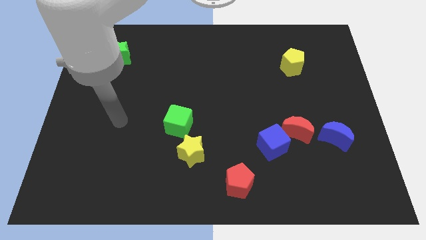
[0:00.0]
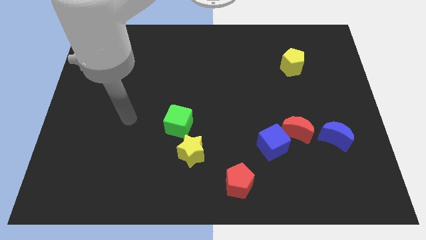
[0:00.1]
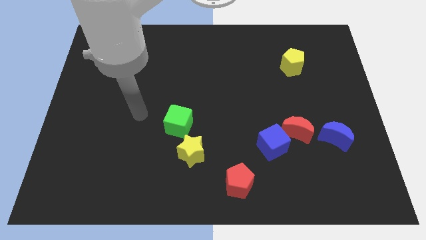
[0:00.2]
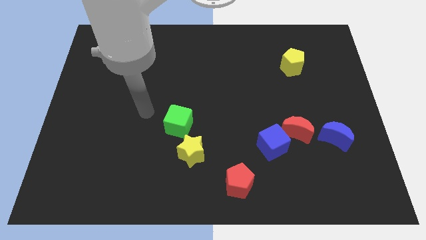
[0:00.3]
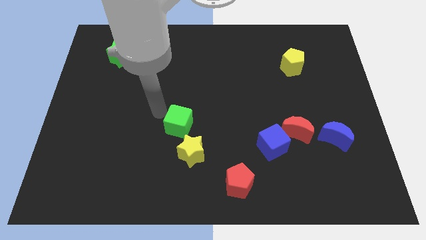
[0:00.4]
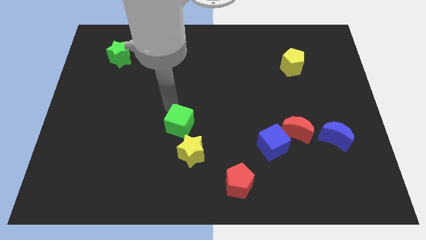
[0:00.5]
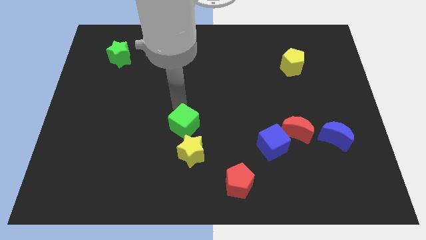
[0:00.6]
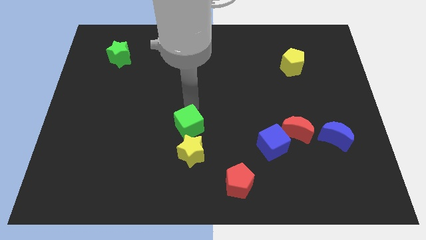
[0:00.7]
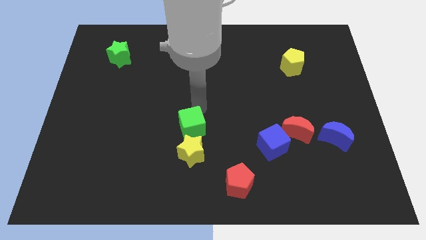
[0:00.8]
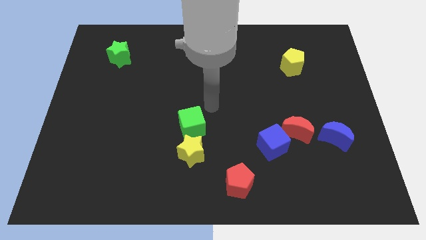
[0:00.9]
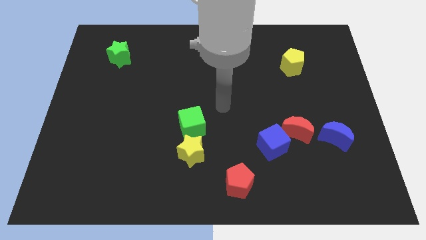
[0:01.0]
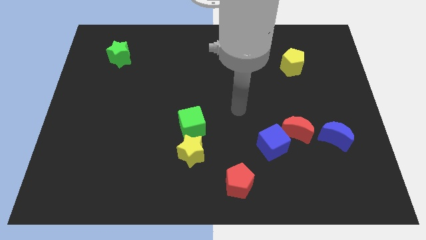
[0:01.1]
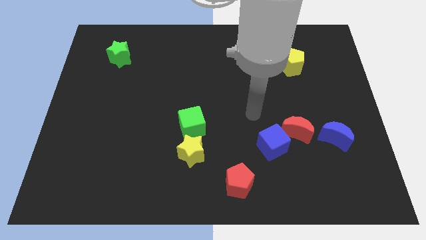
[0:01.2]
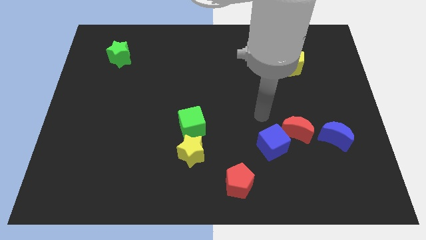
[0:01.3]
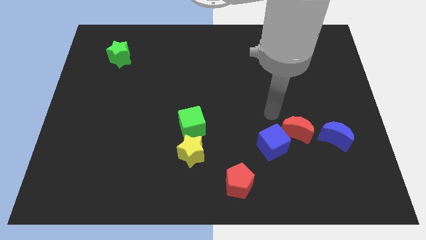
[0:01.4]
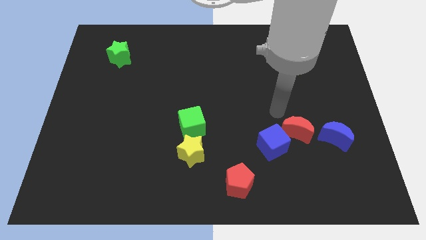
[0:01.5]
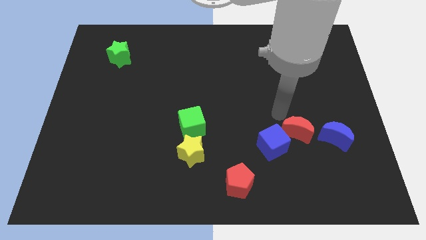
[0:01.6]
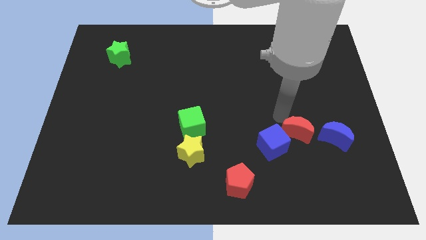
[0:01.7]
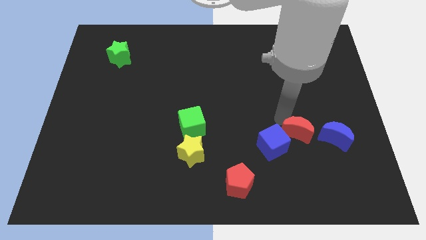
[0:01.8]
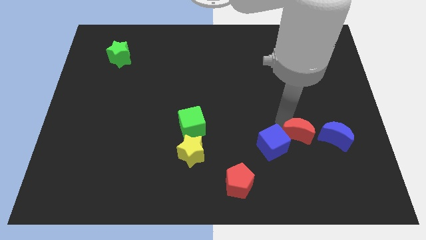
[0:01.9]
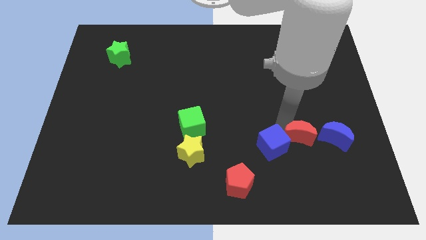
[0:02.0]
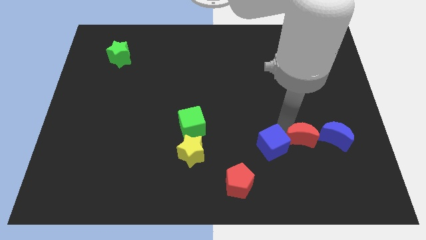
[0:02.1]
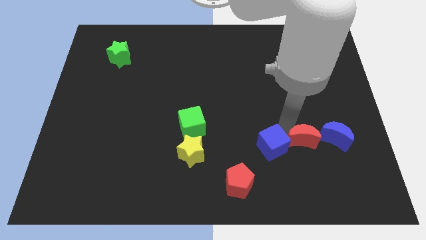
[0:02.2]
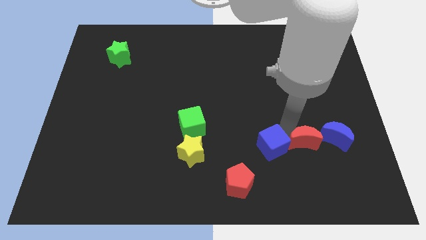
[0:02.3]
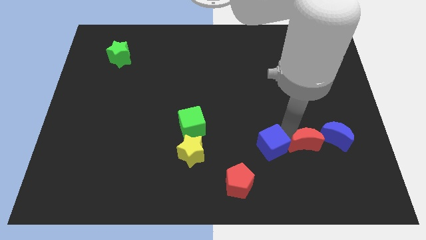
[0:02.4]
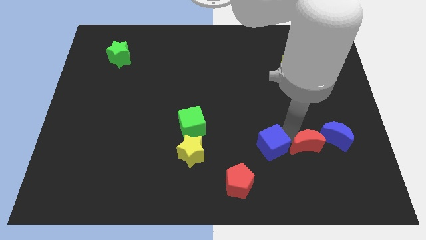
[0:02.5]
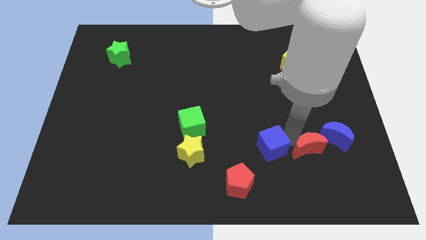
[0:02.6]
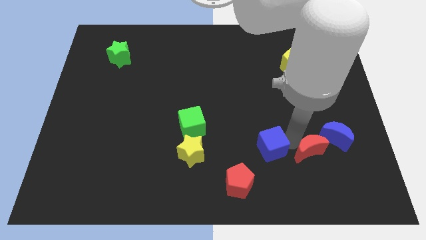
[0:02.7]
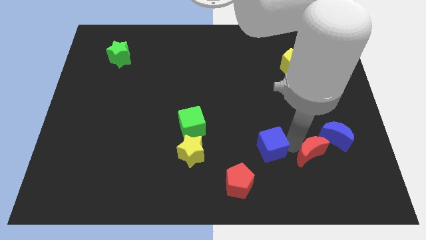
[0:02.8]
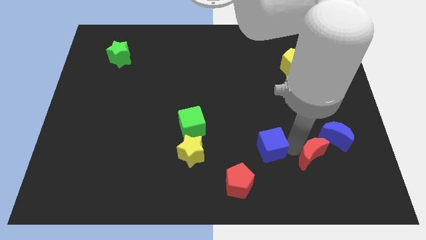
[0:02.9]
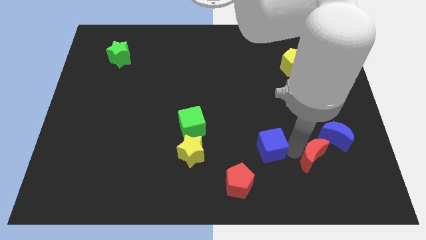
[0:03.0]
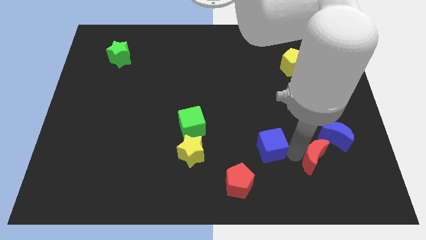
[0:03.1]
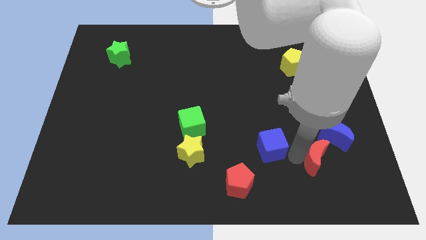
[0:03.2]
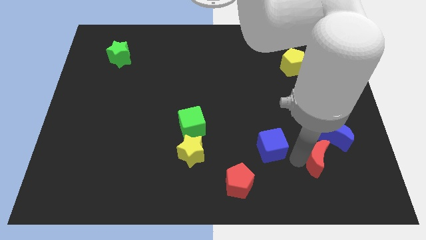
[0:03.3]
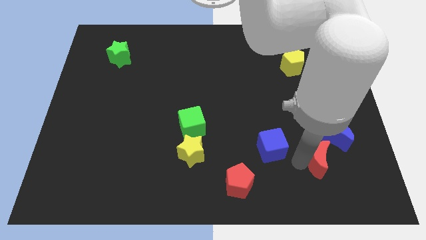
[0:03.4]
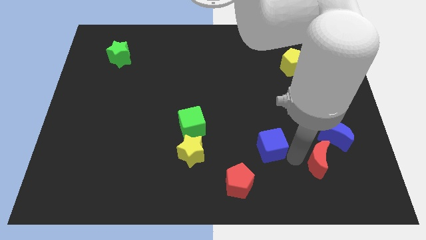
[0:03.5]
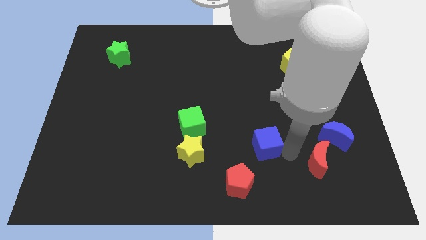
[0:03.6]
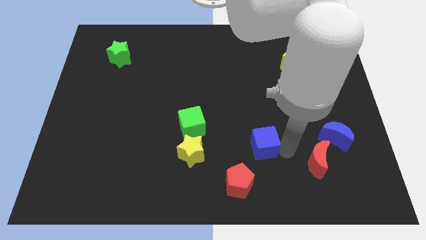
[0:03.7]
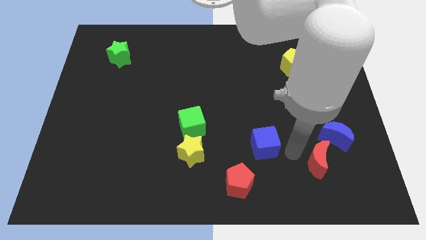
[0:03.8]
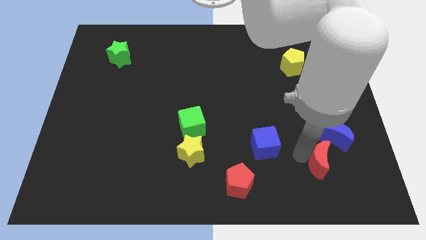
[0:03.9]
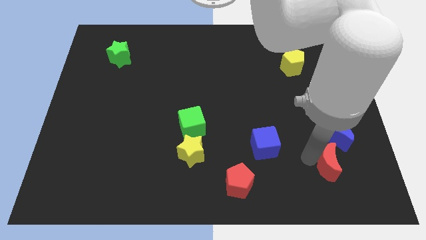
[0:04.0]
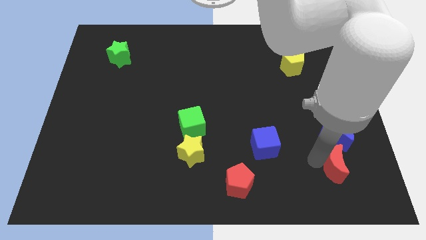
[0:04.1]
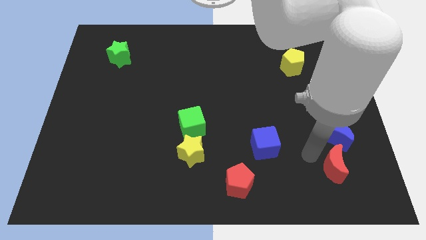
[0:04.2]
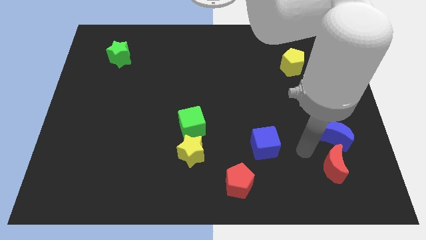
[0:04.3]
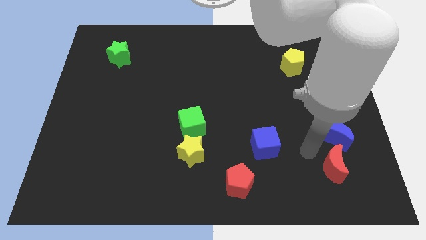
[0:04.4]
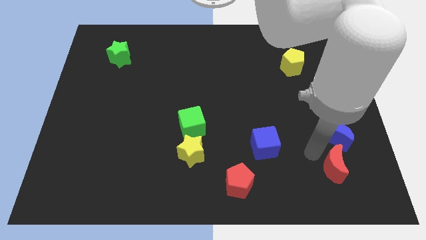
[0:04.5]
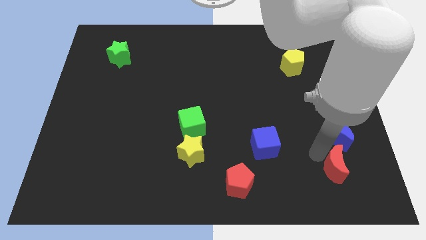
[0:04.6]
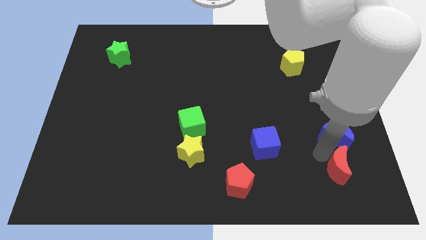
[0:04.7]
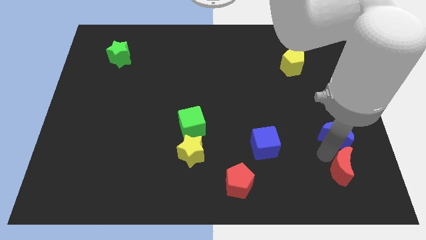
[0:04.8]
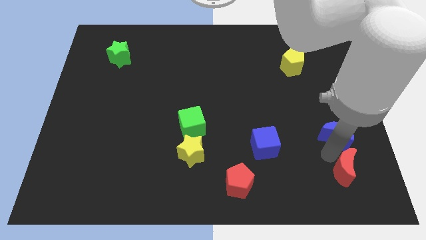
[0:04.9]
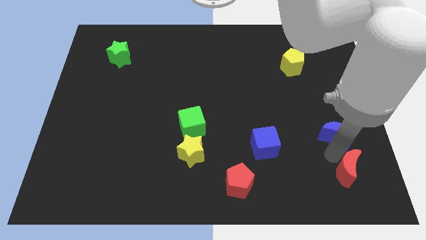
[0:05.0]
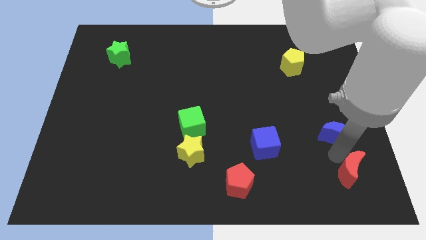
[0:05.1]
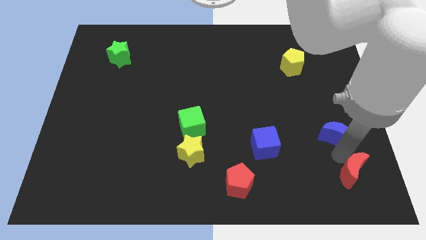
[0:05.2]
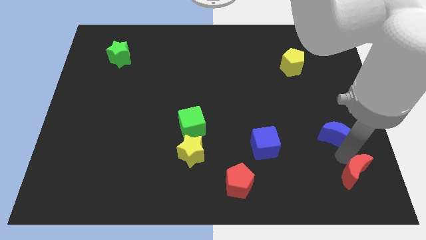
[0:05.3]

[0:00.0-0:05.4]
put the red moon to the bottom right of the board

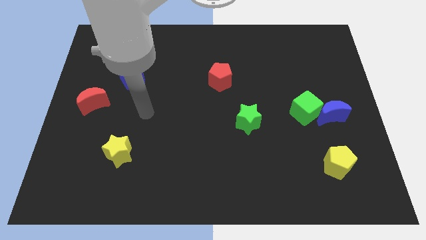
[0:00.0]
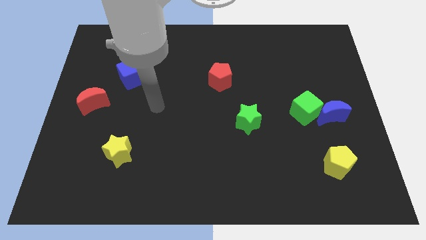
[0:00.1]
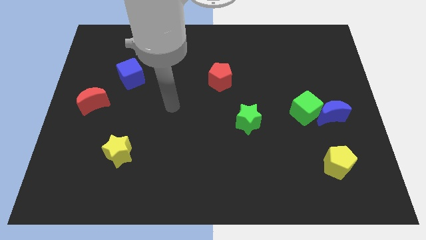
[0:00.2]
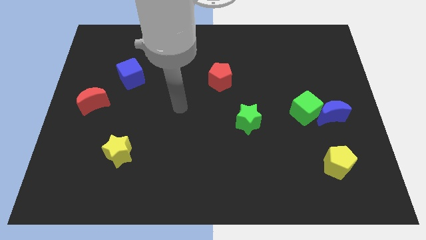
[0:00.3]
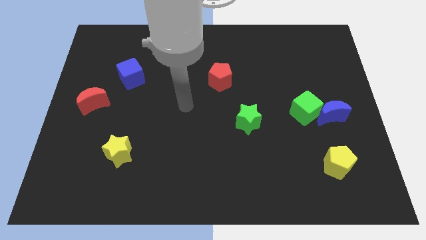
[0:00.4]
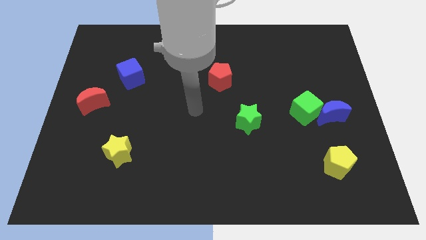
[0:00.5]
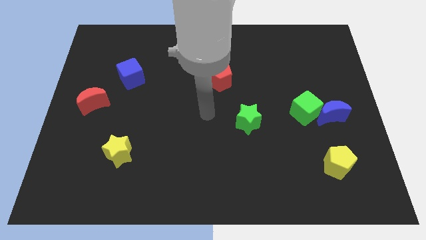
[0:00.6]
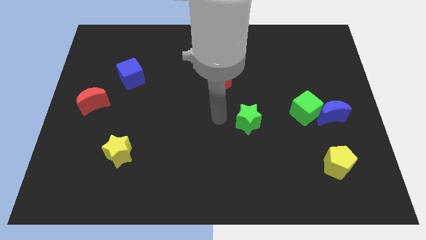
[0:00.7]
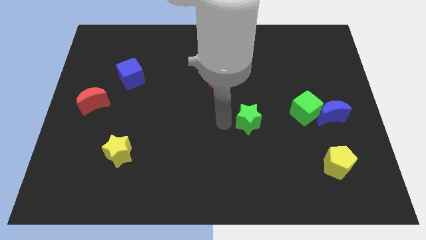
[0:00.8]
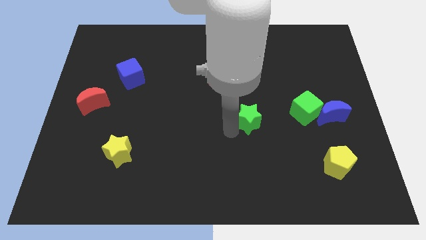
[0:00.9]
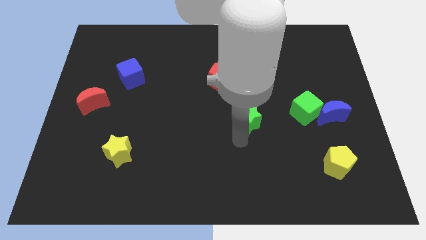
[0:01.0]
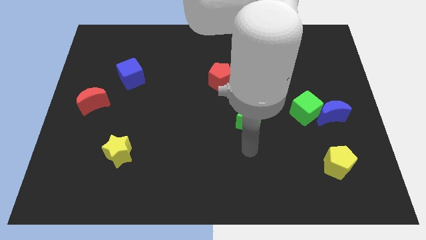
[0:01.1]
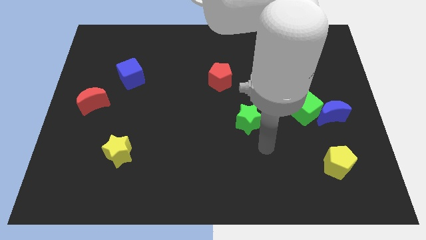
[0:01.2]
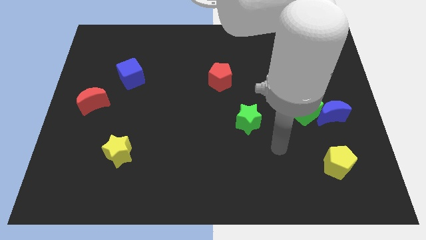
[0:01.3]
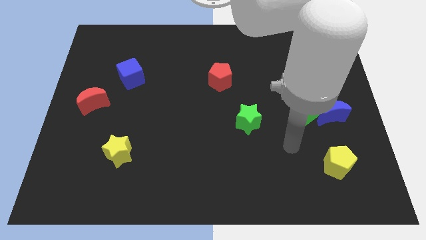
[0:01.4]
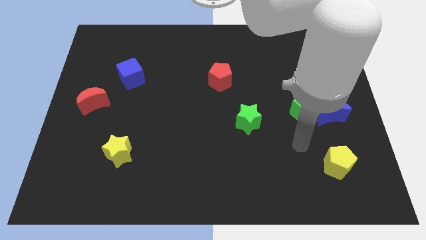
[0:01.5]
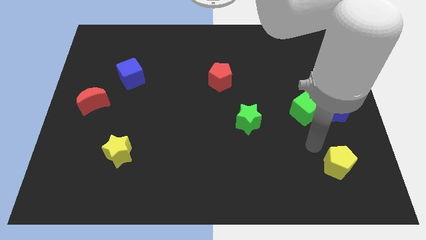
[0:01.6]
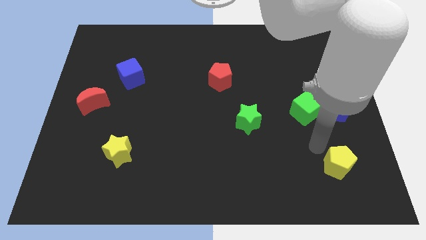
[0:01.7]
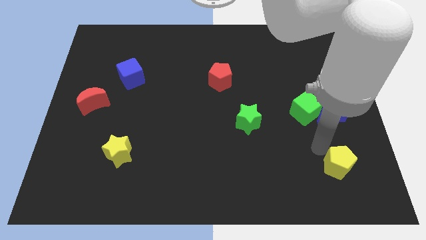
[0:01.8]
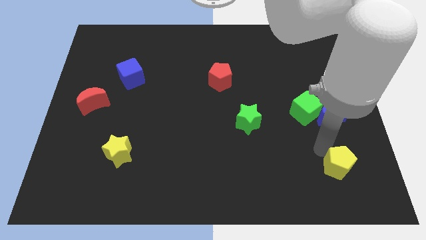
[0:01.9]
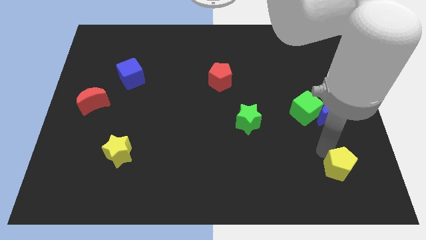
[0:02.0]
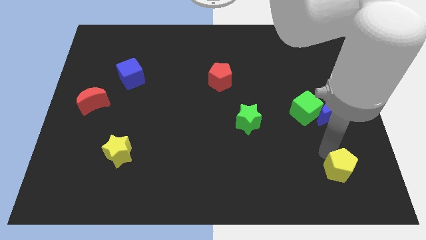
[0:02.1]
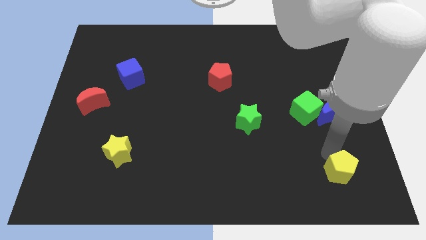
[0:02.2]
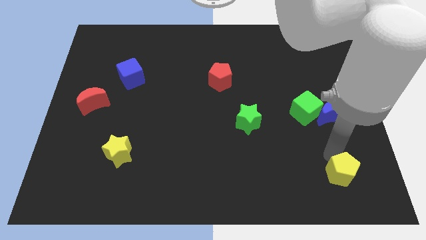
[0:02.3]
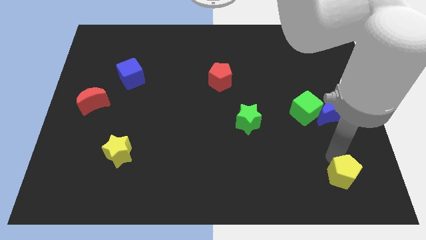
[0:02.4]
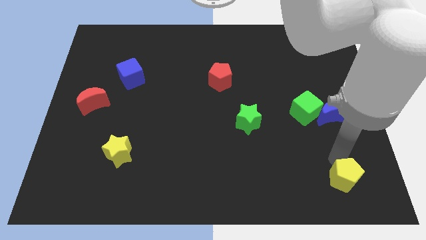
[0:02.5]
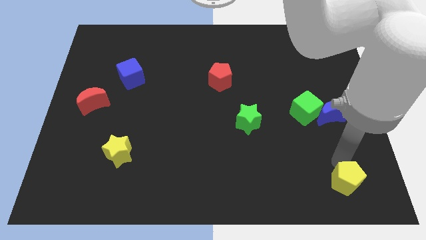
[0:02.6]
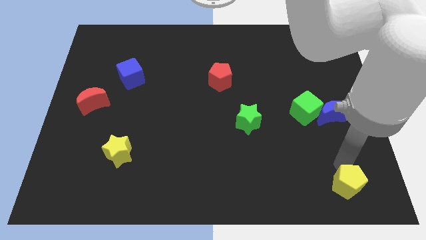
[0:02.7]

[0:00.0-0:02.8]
move the yellow pentagon to the lower right corner
